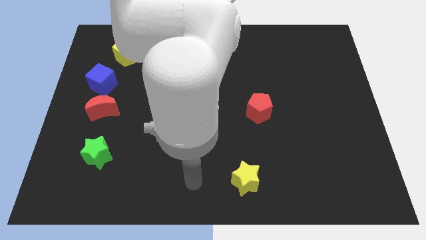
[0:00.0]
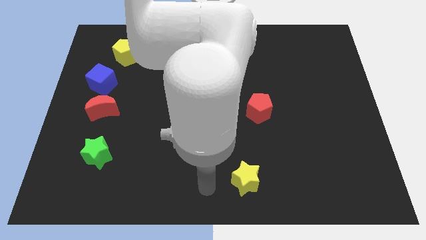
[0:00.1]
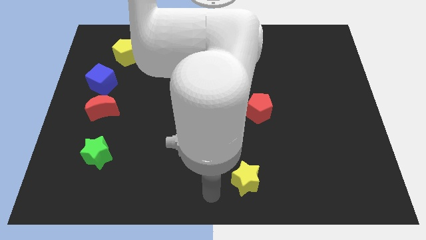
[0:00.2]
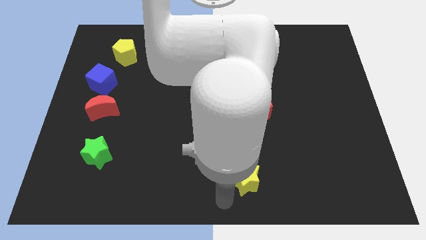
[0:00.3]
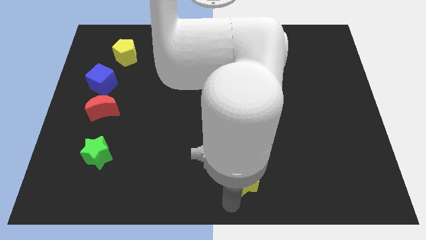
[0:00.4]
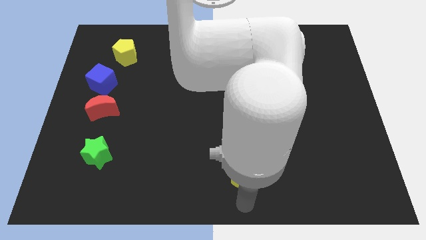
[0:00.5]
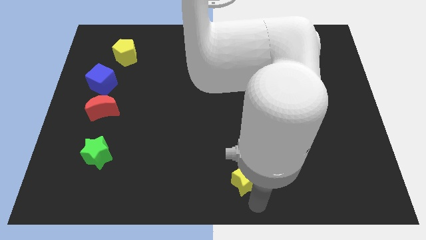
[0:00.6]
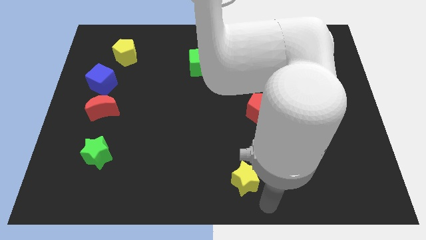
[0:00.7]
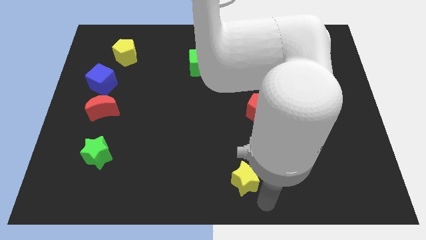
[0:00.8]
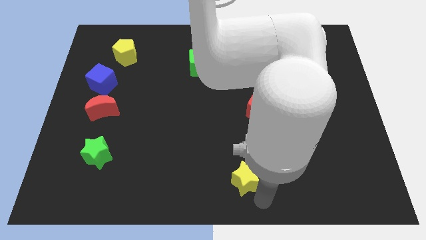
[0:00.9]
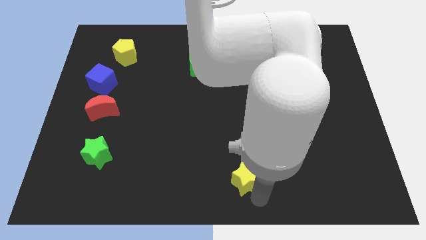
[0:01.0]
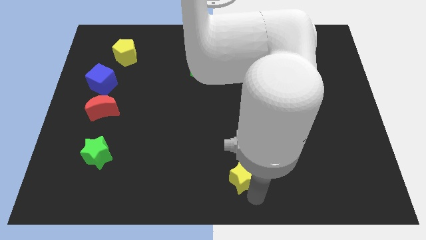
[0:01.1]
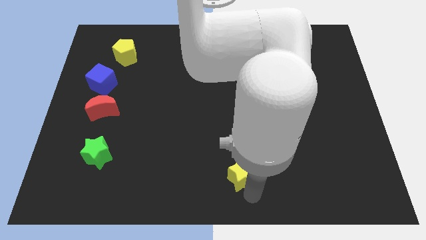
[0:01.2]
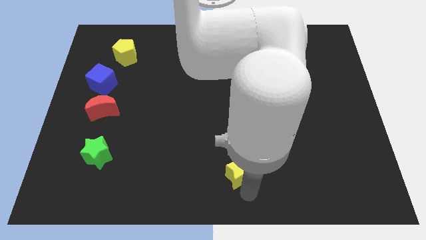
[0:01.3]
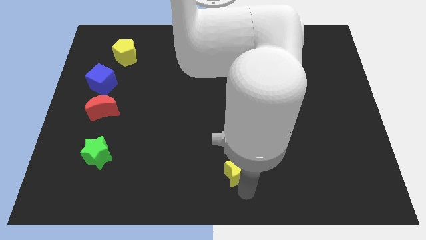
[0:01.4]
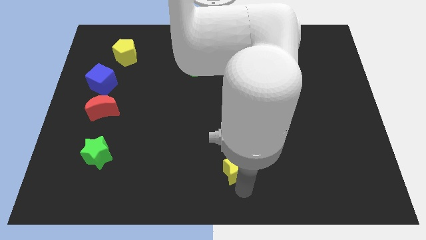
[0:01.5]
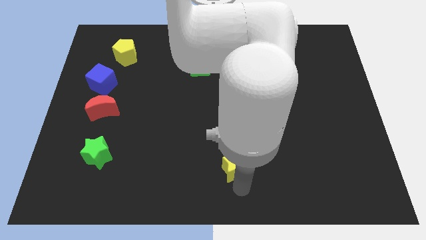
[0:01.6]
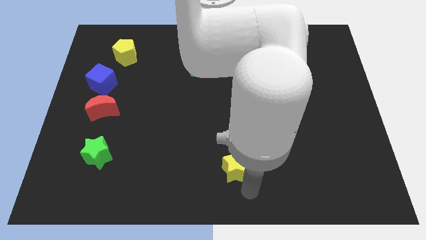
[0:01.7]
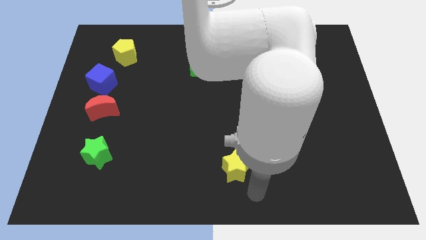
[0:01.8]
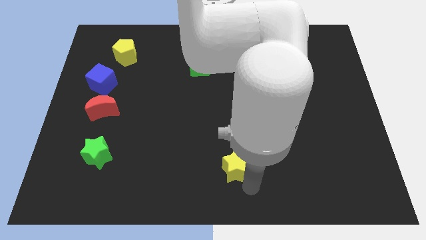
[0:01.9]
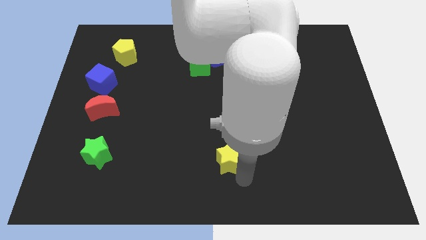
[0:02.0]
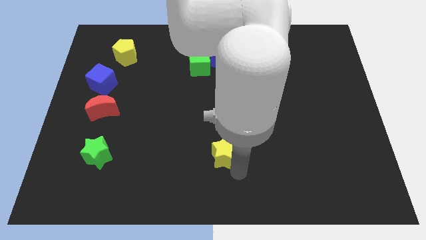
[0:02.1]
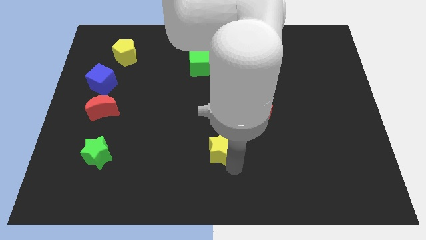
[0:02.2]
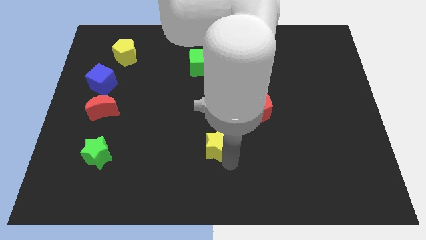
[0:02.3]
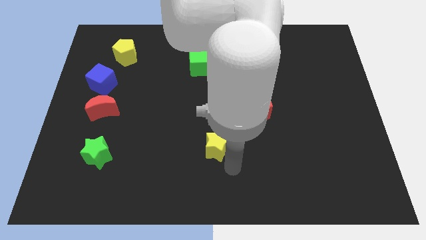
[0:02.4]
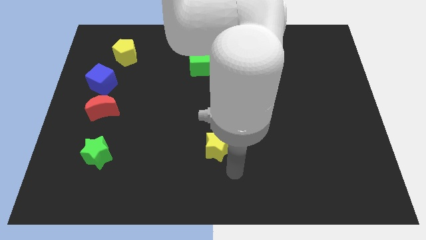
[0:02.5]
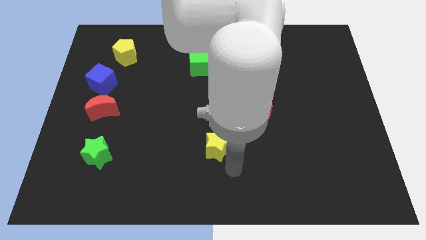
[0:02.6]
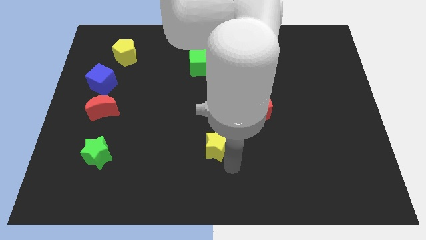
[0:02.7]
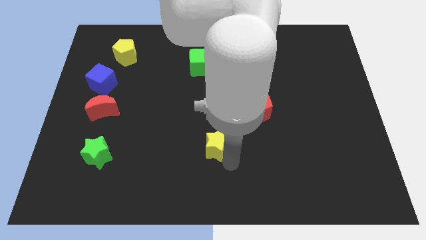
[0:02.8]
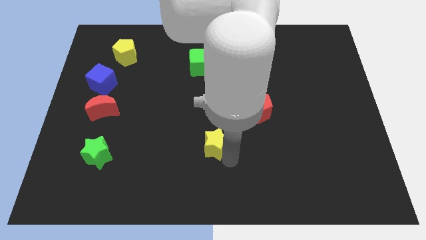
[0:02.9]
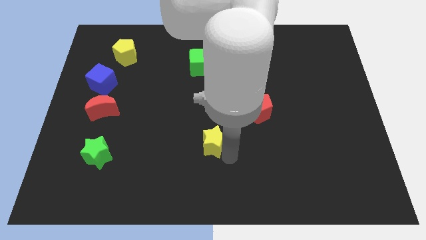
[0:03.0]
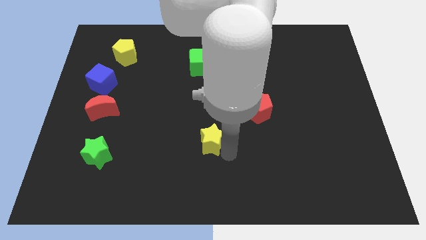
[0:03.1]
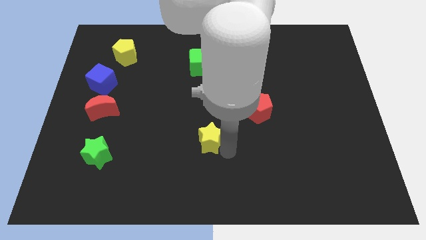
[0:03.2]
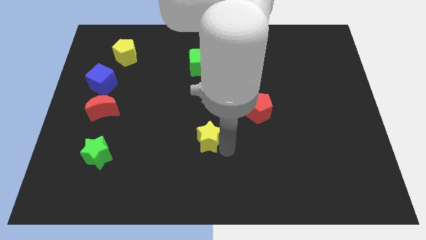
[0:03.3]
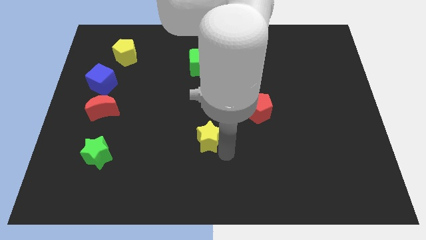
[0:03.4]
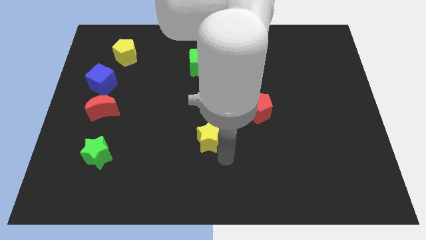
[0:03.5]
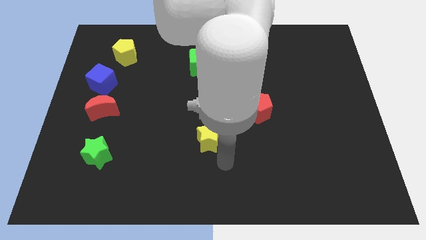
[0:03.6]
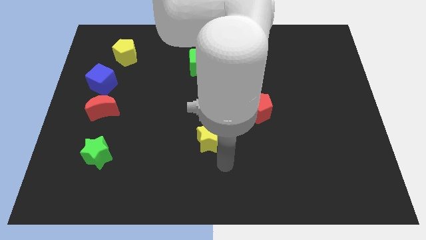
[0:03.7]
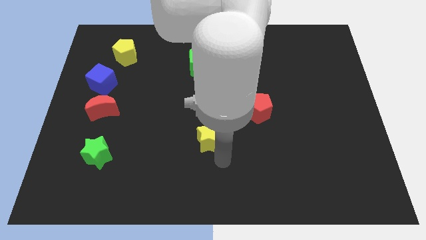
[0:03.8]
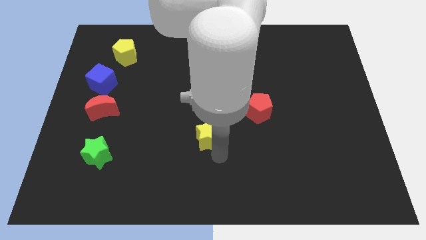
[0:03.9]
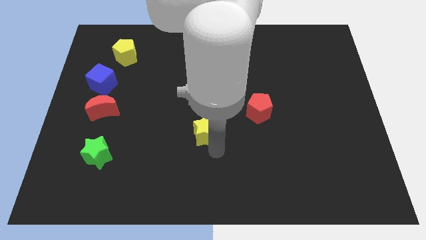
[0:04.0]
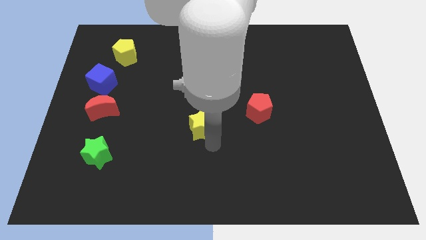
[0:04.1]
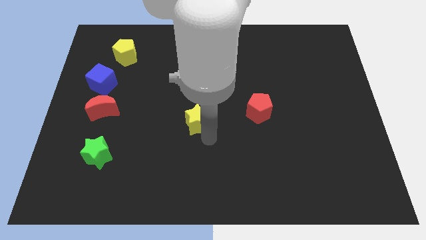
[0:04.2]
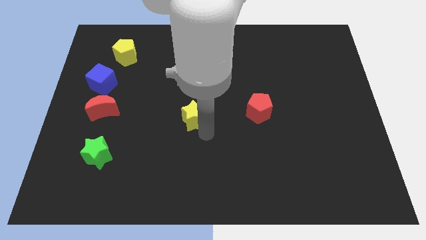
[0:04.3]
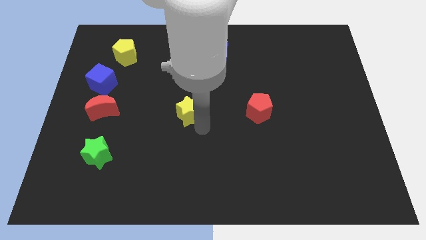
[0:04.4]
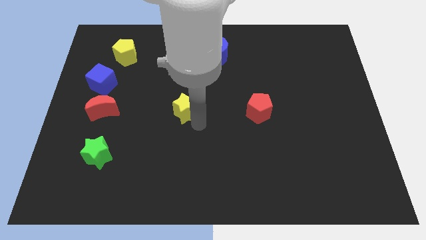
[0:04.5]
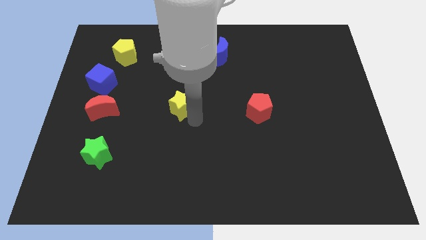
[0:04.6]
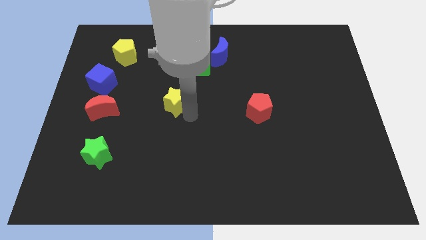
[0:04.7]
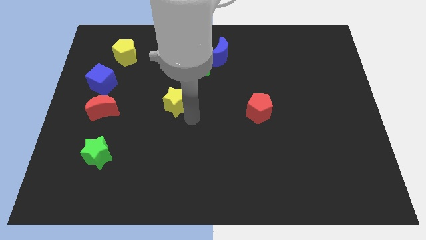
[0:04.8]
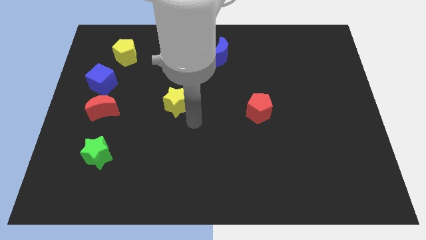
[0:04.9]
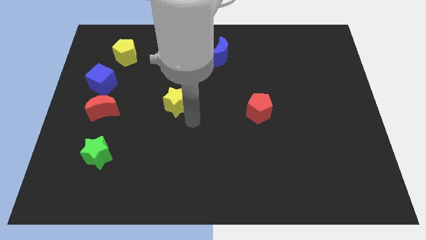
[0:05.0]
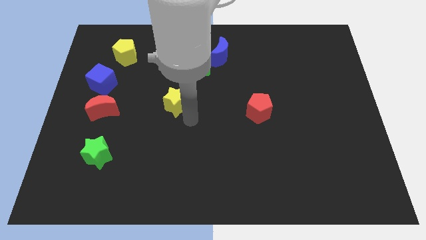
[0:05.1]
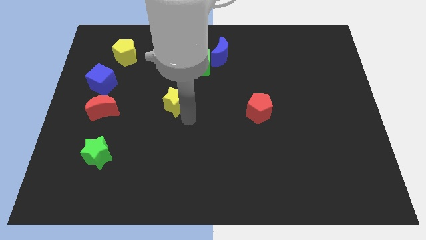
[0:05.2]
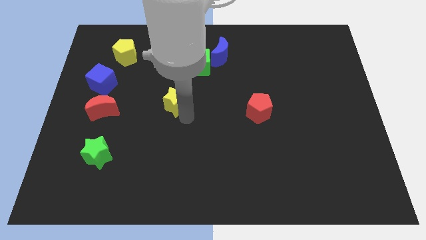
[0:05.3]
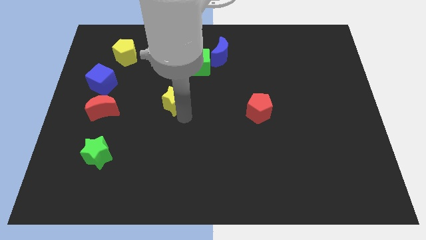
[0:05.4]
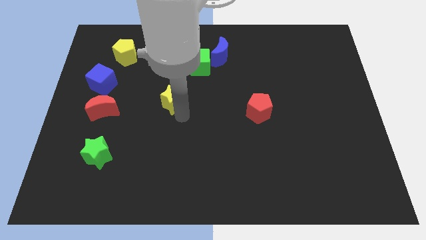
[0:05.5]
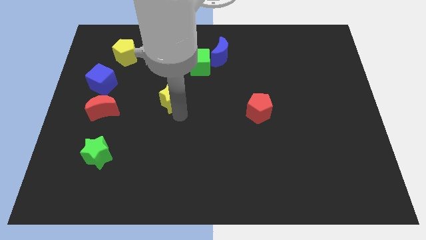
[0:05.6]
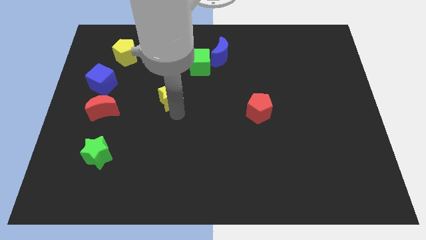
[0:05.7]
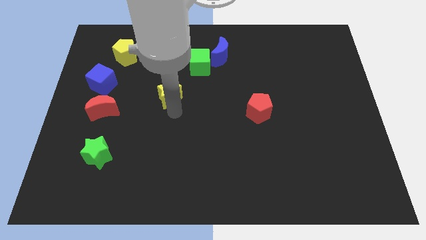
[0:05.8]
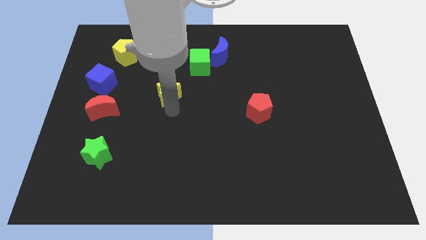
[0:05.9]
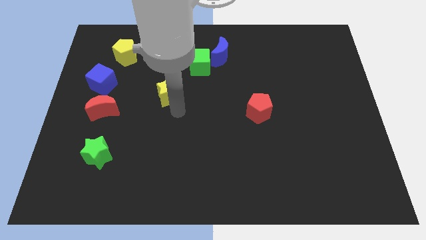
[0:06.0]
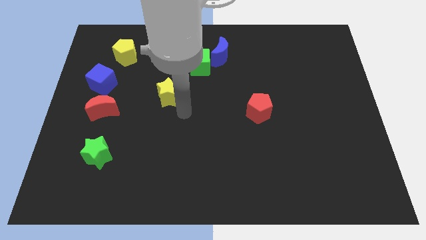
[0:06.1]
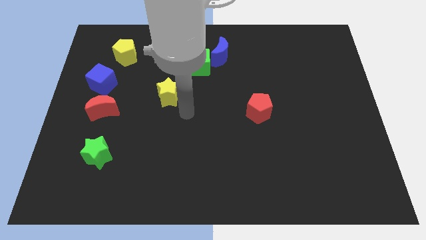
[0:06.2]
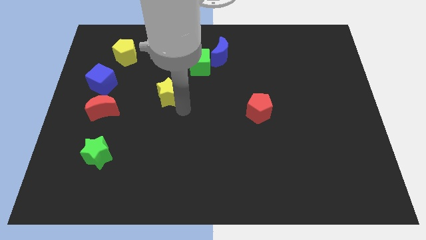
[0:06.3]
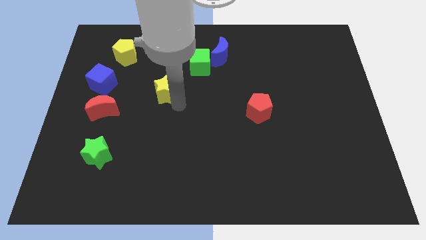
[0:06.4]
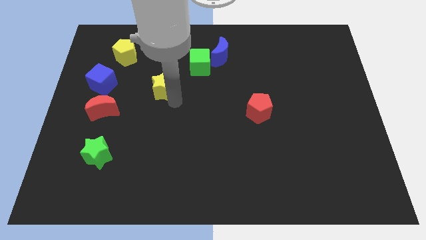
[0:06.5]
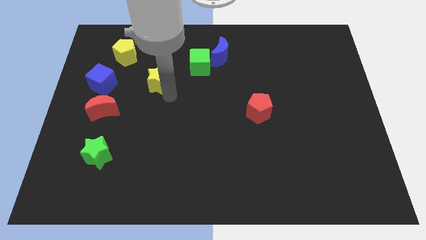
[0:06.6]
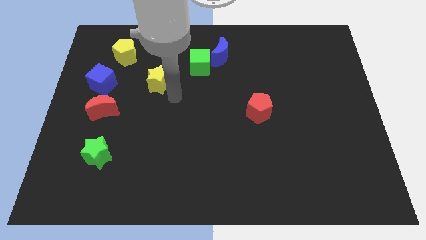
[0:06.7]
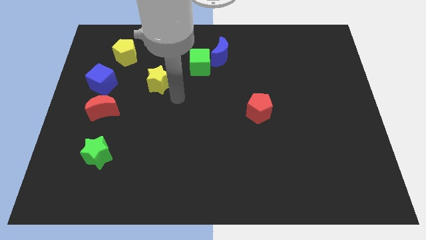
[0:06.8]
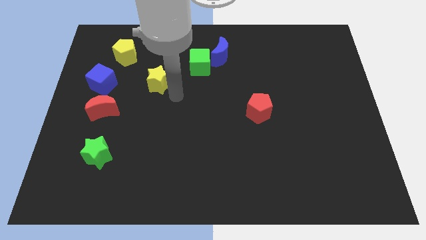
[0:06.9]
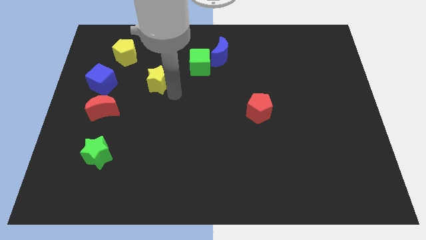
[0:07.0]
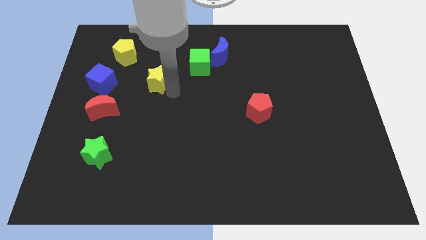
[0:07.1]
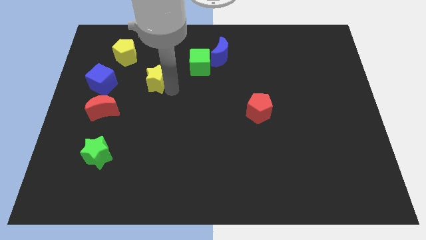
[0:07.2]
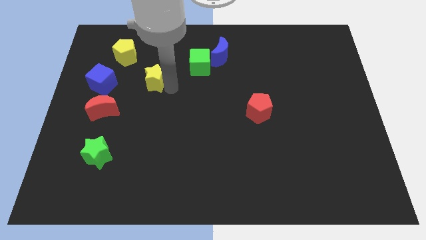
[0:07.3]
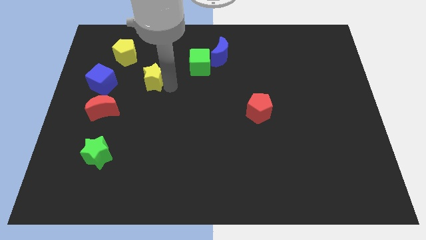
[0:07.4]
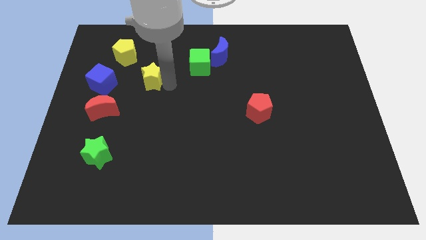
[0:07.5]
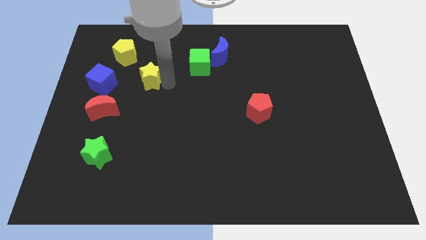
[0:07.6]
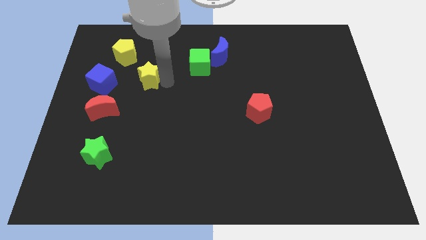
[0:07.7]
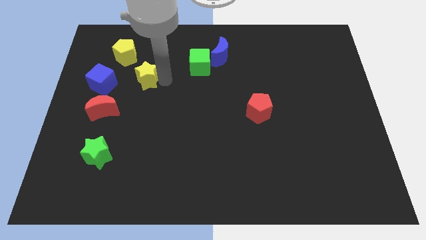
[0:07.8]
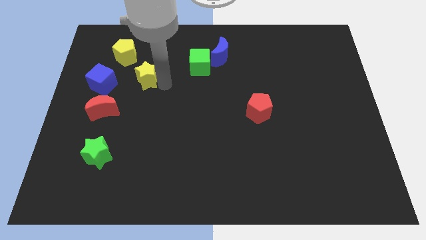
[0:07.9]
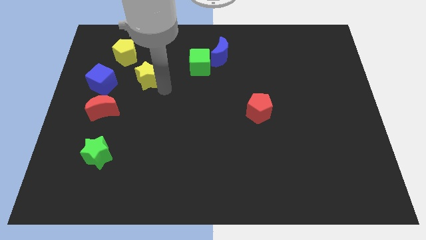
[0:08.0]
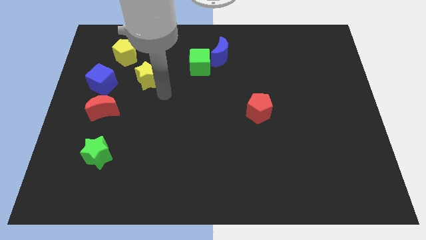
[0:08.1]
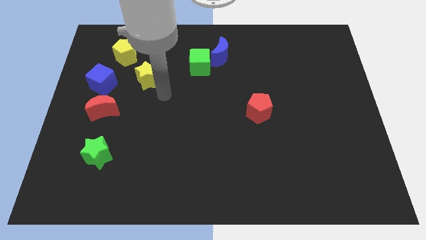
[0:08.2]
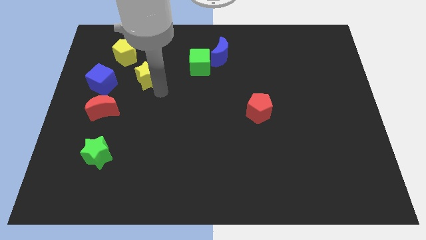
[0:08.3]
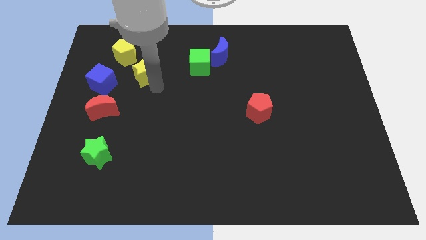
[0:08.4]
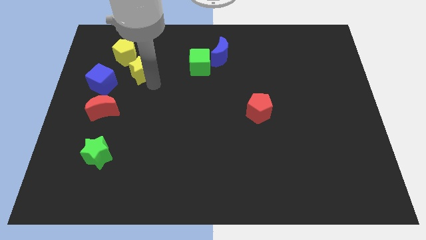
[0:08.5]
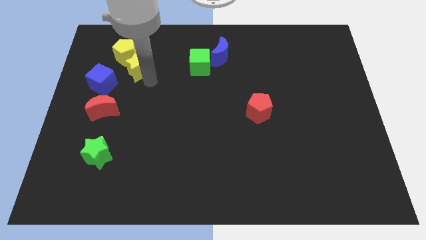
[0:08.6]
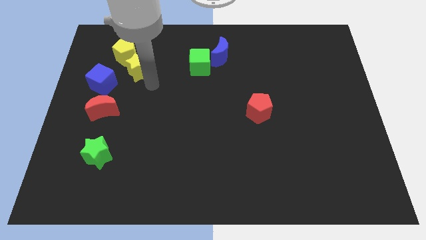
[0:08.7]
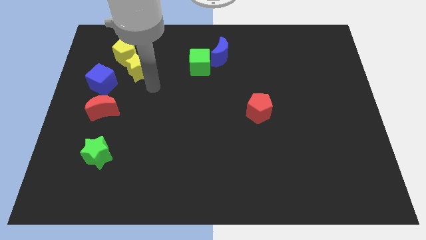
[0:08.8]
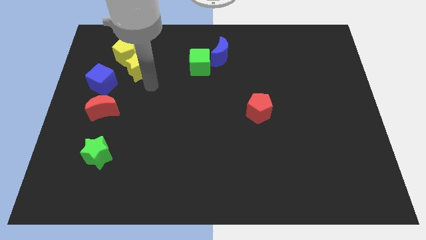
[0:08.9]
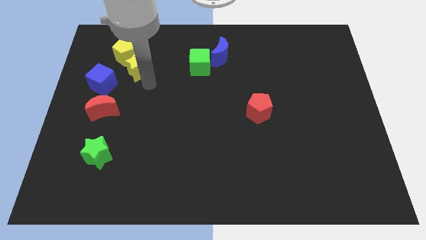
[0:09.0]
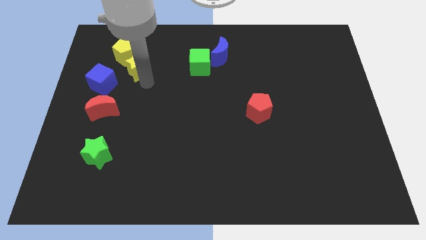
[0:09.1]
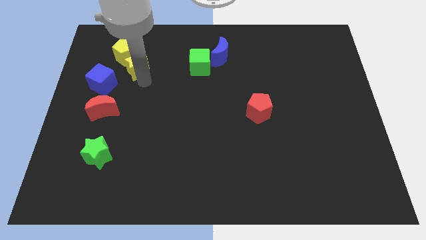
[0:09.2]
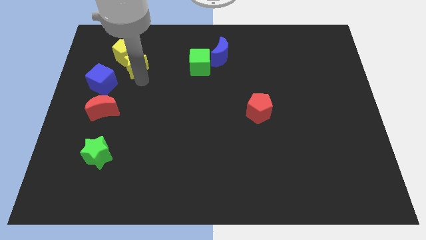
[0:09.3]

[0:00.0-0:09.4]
push the yellow star close to the yellow pentagon
